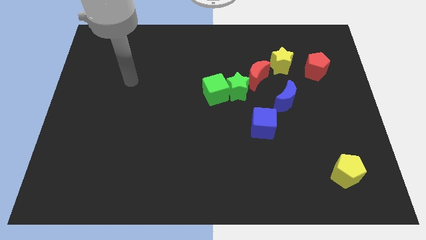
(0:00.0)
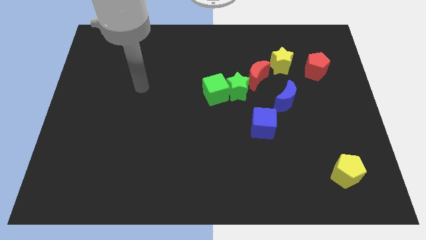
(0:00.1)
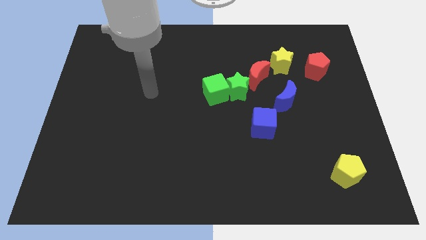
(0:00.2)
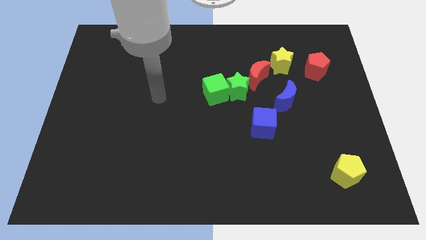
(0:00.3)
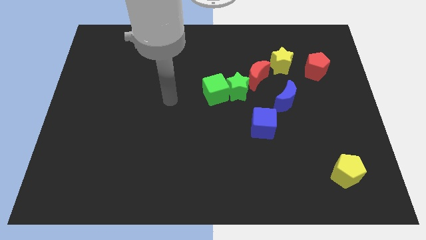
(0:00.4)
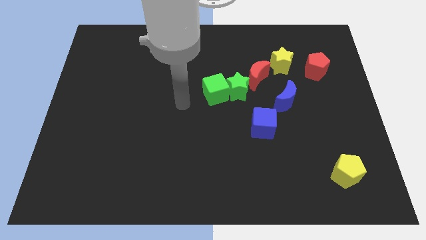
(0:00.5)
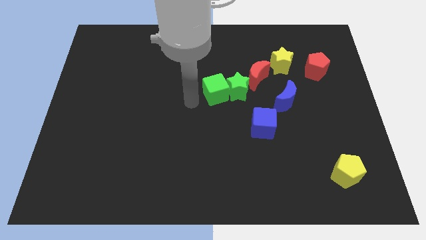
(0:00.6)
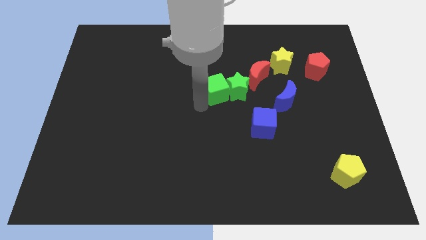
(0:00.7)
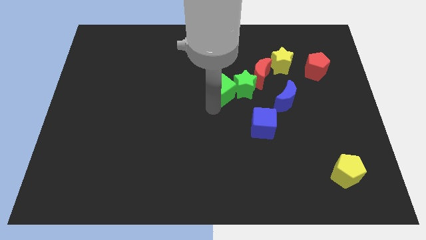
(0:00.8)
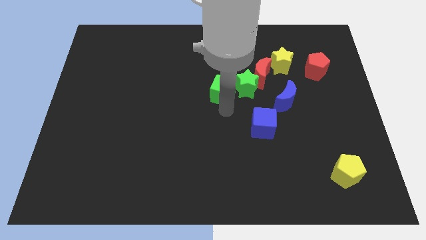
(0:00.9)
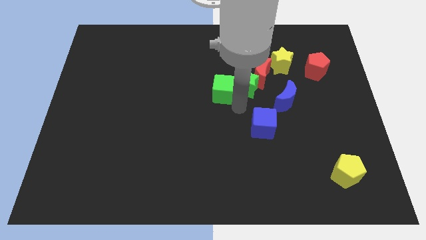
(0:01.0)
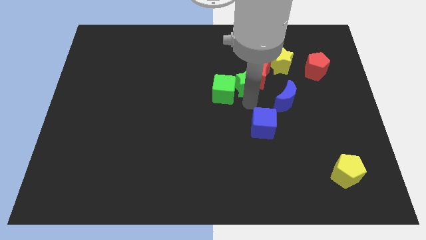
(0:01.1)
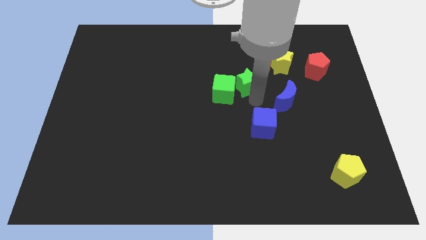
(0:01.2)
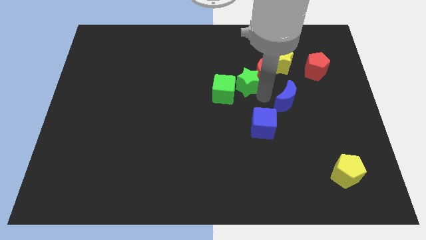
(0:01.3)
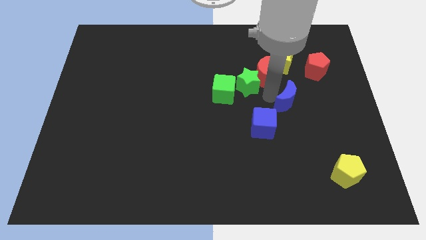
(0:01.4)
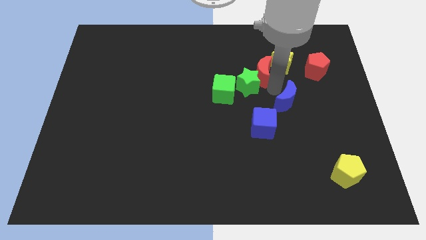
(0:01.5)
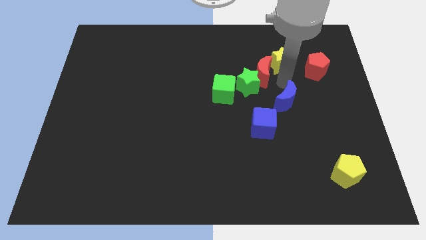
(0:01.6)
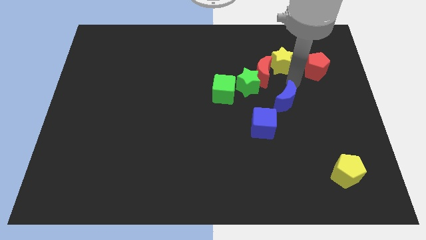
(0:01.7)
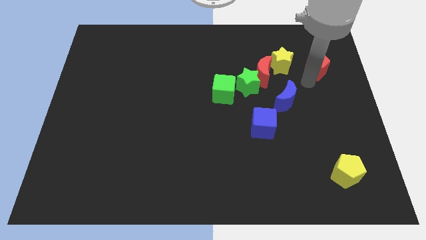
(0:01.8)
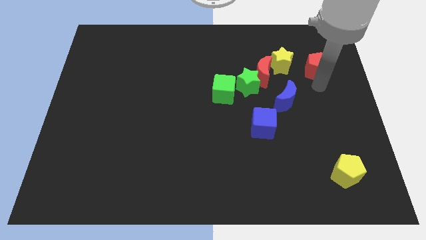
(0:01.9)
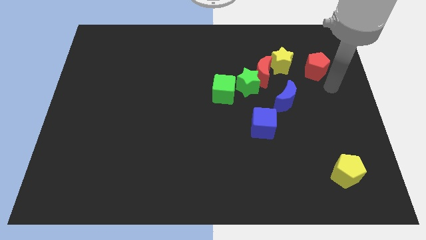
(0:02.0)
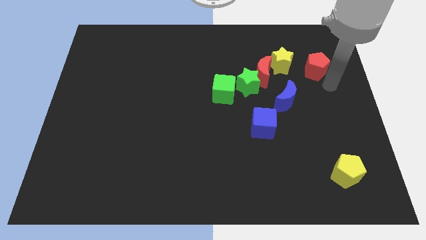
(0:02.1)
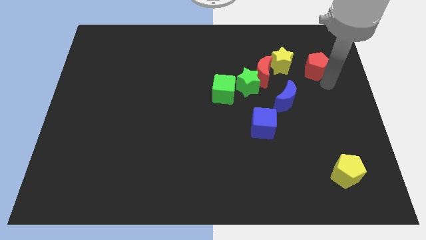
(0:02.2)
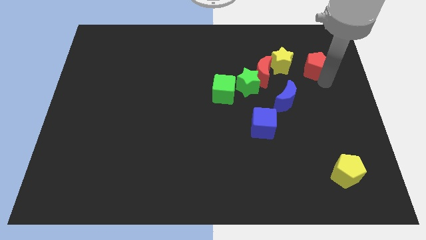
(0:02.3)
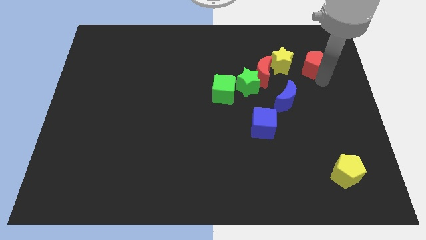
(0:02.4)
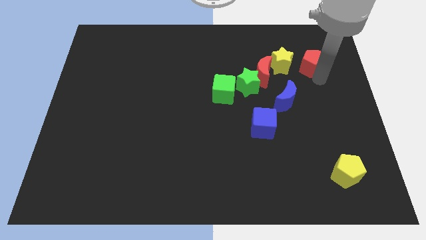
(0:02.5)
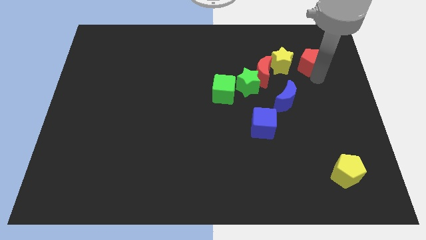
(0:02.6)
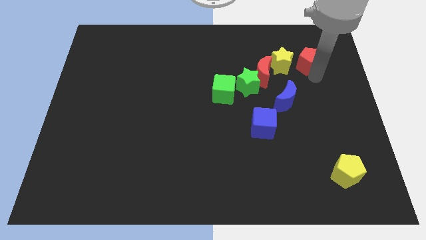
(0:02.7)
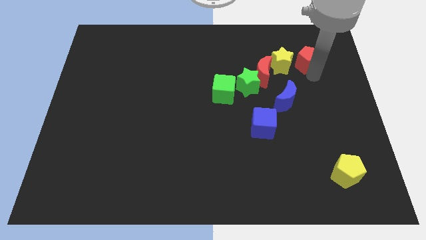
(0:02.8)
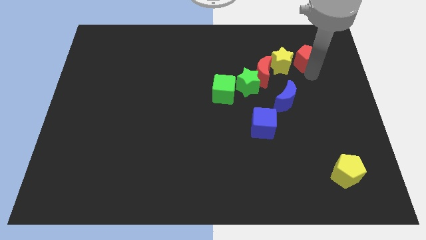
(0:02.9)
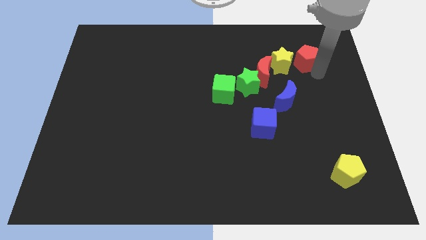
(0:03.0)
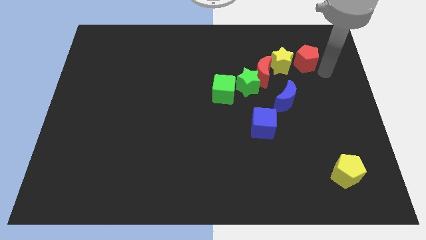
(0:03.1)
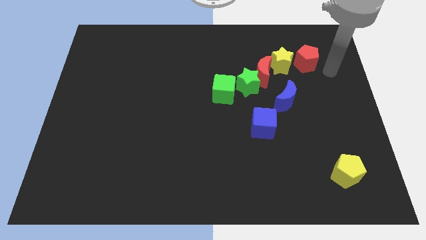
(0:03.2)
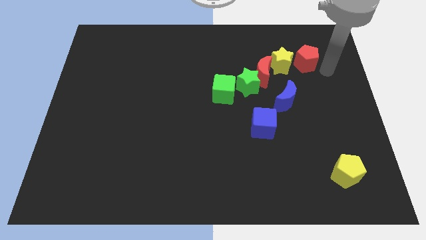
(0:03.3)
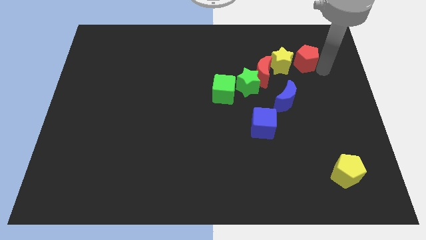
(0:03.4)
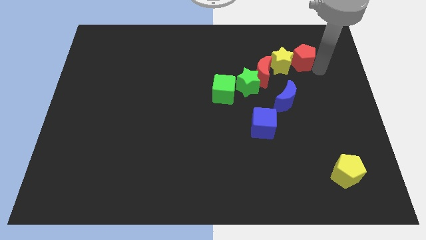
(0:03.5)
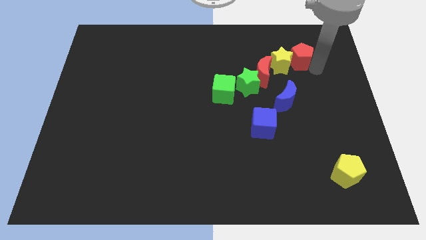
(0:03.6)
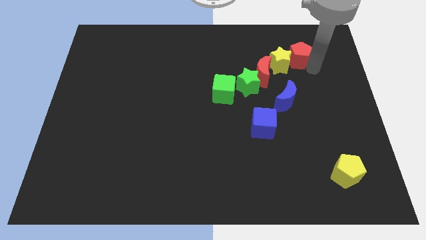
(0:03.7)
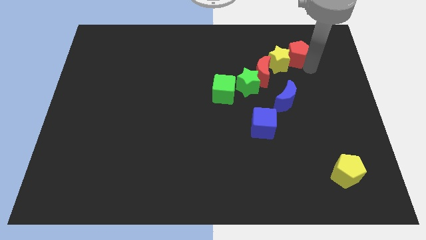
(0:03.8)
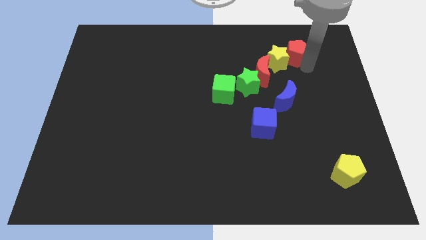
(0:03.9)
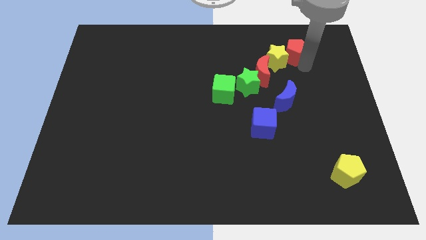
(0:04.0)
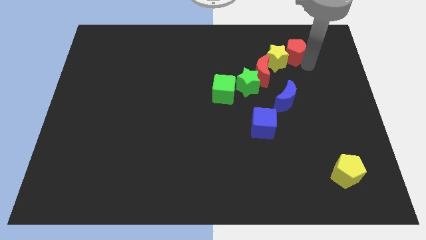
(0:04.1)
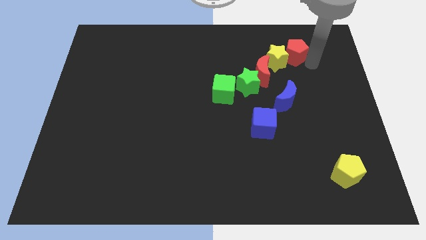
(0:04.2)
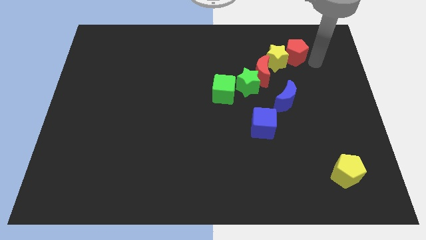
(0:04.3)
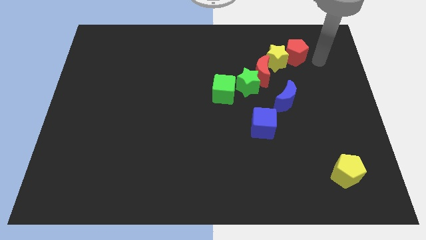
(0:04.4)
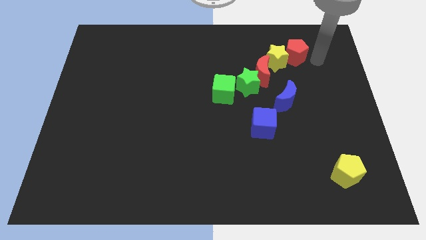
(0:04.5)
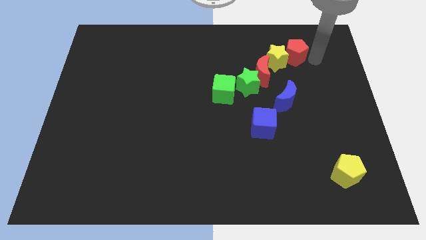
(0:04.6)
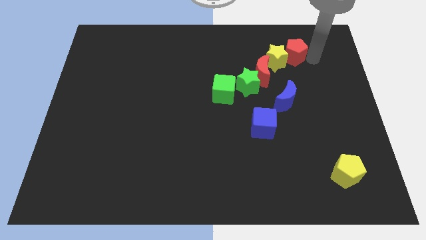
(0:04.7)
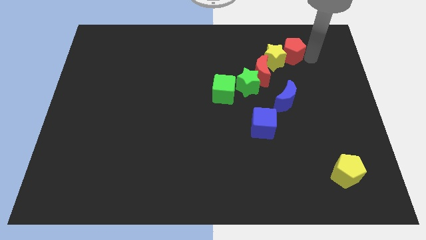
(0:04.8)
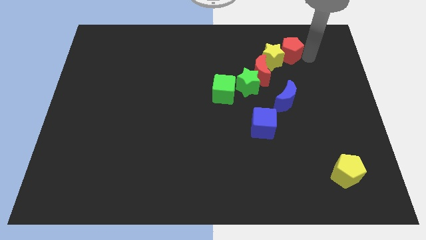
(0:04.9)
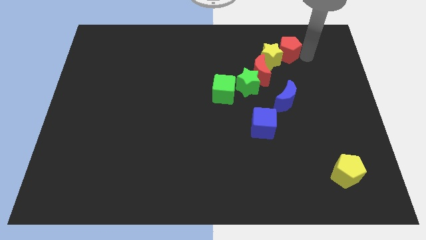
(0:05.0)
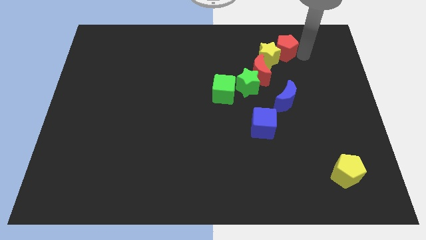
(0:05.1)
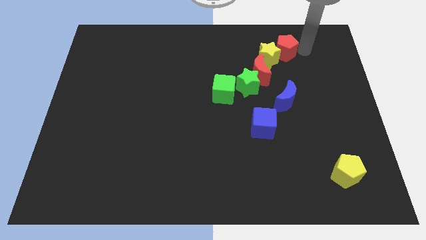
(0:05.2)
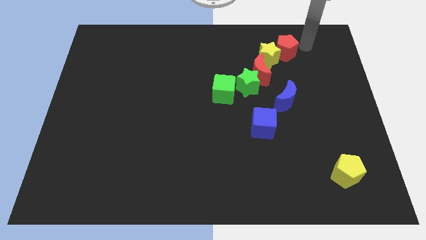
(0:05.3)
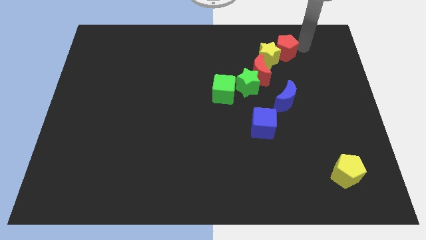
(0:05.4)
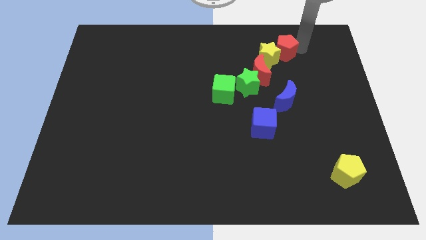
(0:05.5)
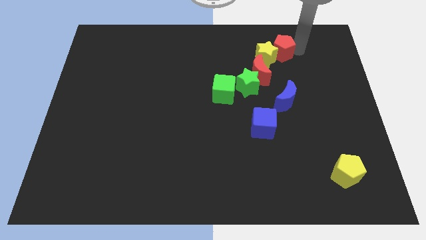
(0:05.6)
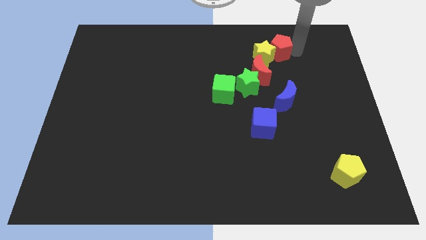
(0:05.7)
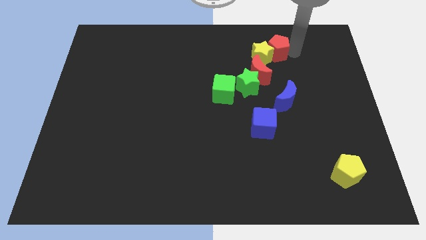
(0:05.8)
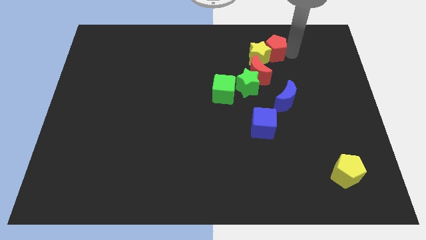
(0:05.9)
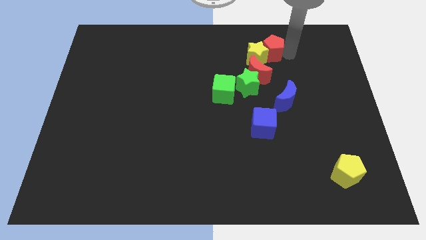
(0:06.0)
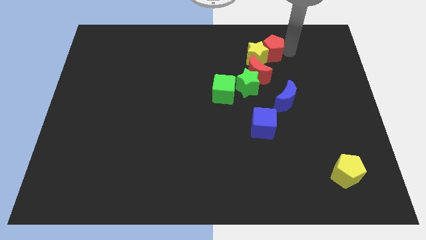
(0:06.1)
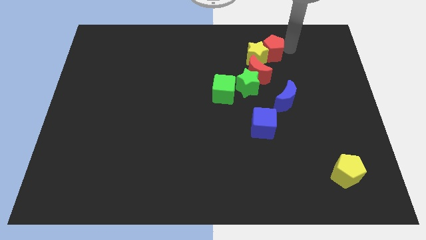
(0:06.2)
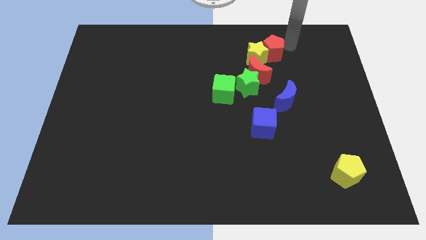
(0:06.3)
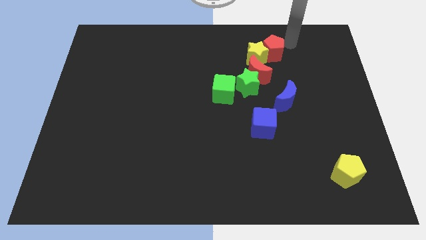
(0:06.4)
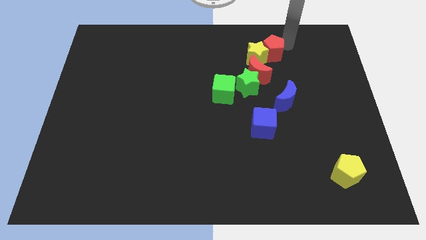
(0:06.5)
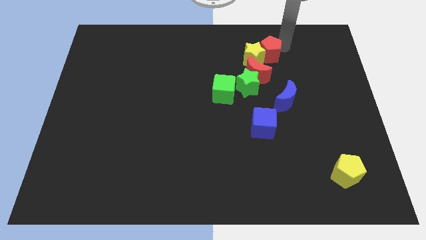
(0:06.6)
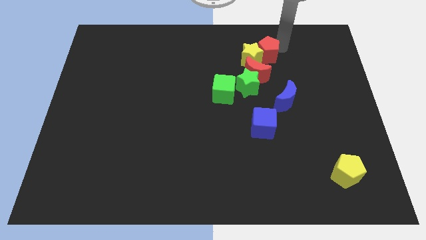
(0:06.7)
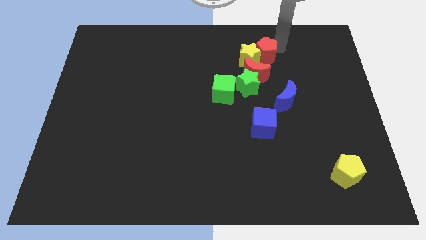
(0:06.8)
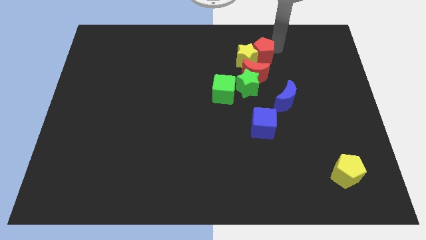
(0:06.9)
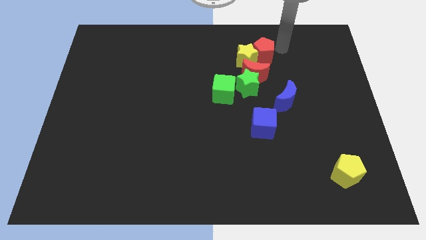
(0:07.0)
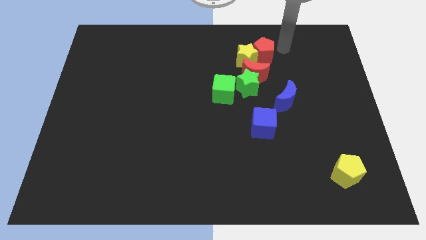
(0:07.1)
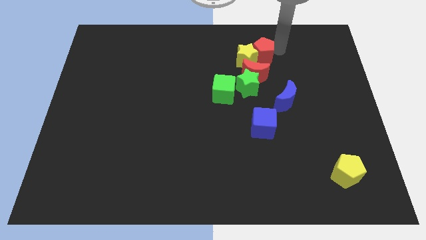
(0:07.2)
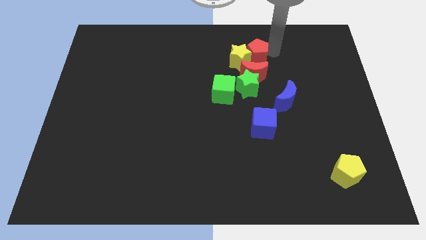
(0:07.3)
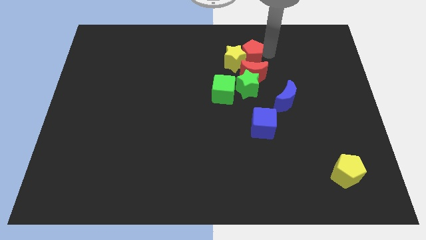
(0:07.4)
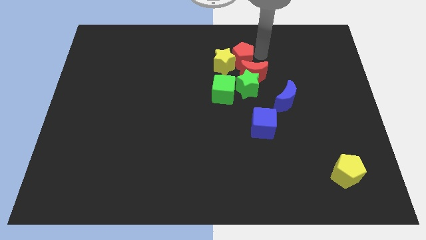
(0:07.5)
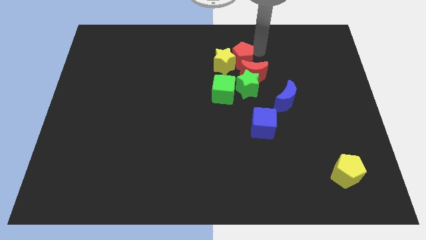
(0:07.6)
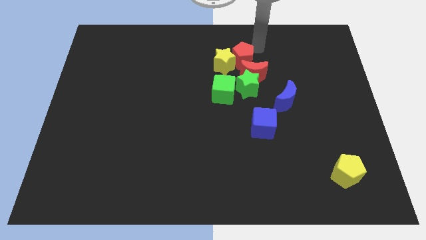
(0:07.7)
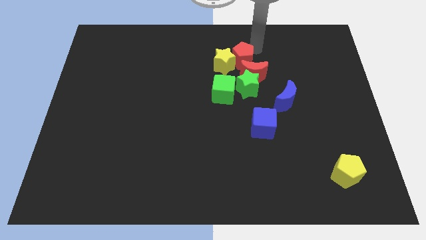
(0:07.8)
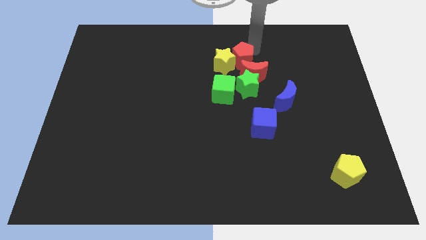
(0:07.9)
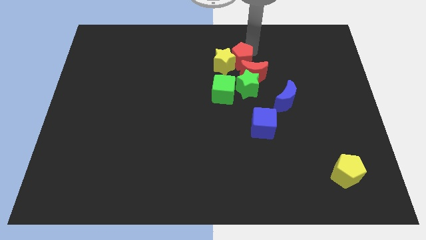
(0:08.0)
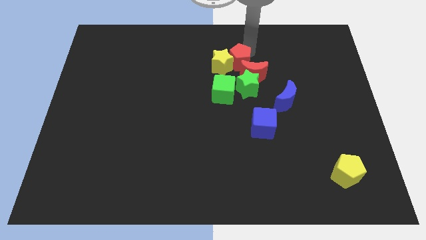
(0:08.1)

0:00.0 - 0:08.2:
put the red pentagon to the top left of the green star
